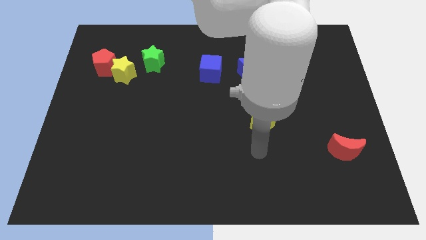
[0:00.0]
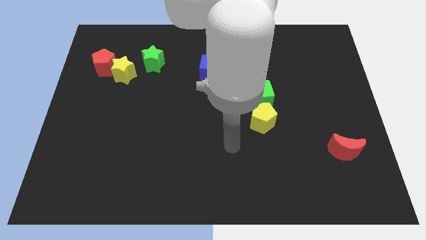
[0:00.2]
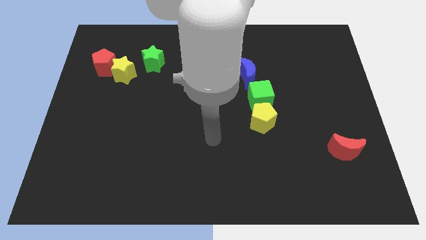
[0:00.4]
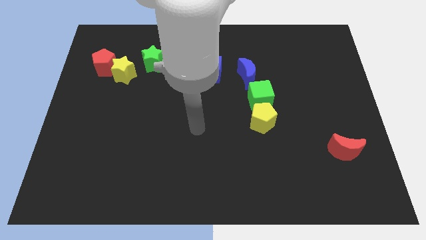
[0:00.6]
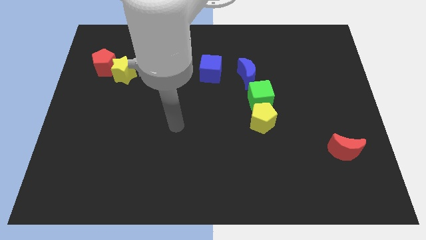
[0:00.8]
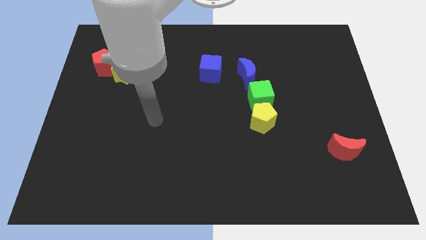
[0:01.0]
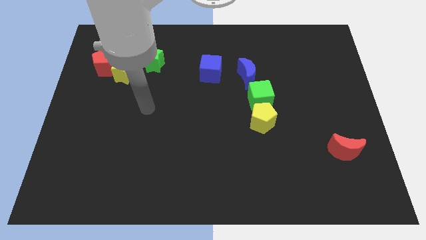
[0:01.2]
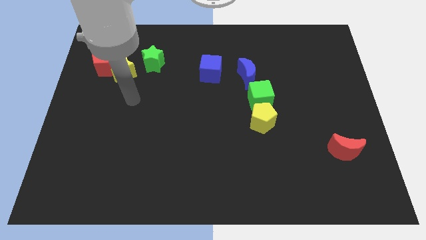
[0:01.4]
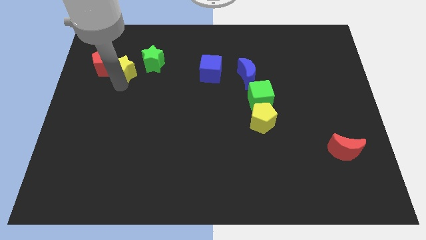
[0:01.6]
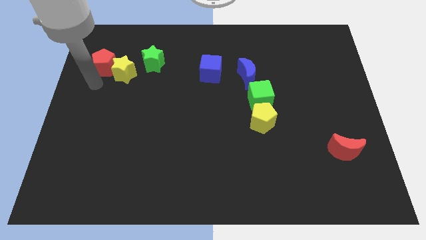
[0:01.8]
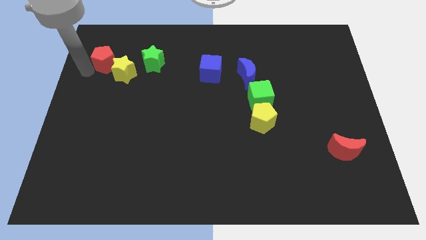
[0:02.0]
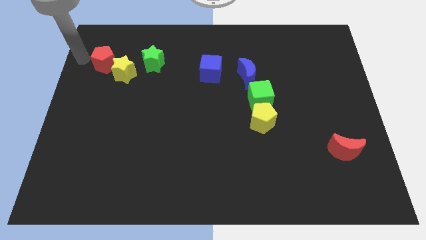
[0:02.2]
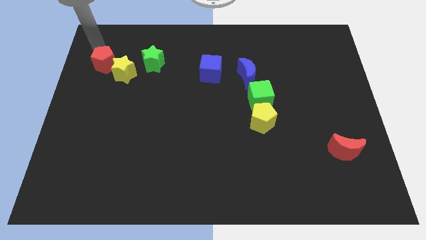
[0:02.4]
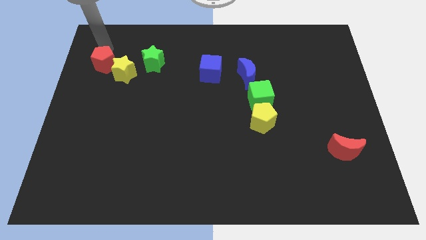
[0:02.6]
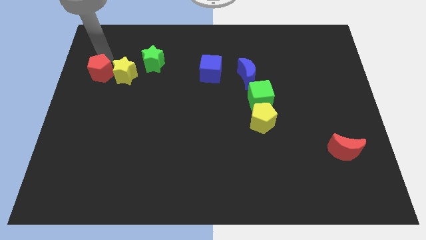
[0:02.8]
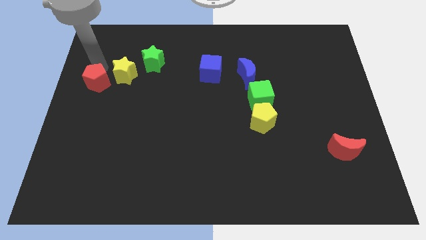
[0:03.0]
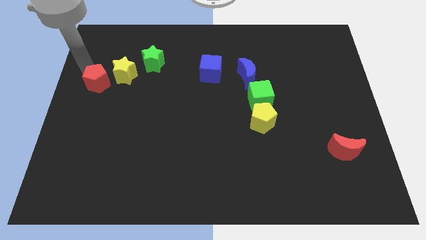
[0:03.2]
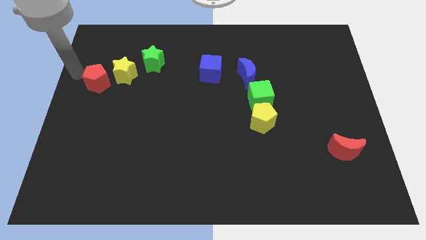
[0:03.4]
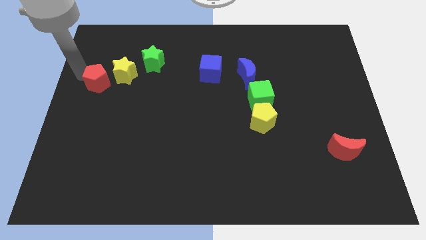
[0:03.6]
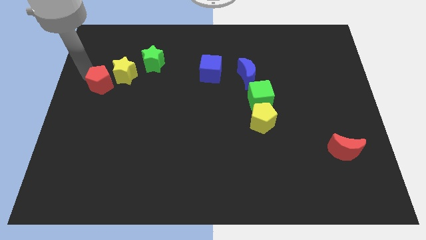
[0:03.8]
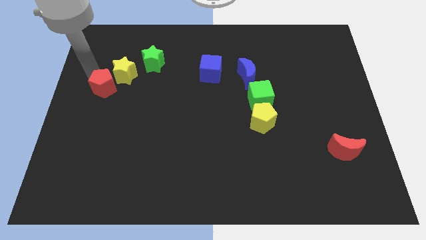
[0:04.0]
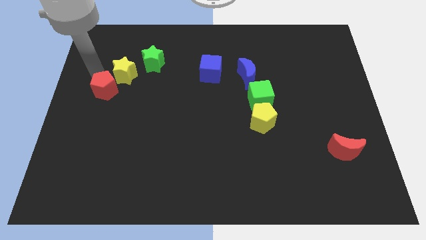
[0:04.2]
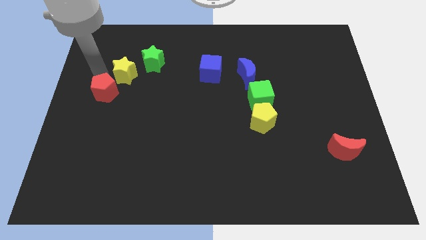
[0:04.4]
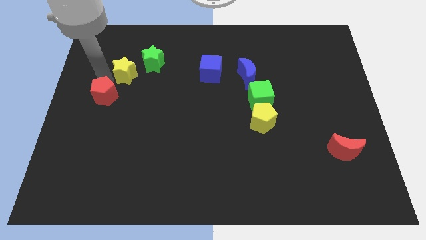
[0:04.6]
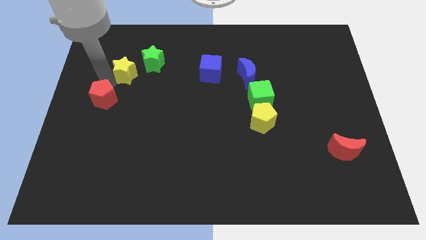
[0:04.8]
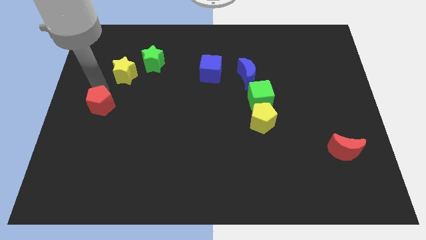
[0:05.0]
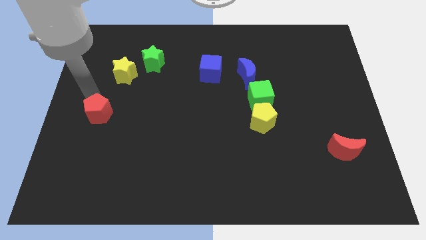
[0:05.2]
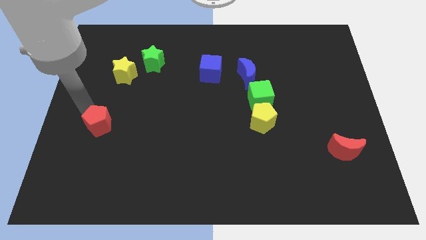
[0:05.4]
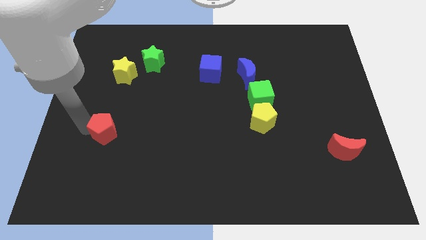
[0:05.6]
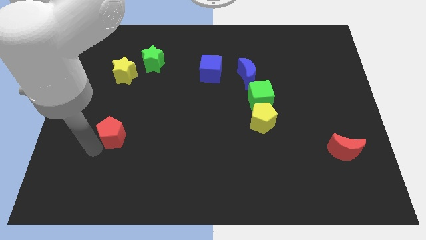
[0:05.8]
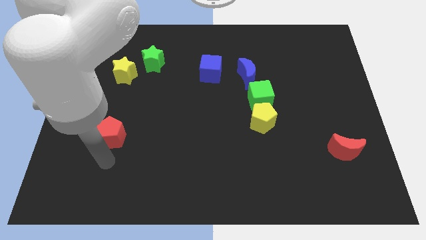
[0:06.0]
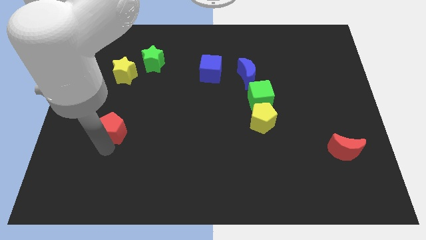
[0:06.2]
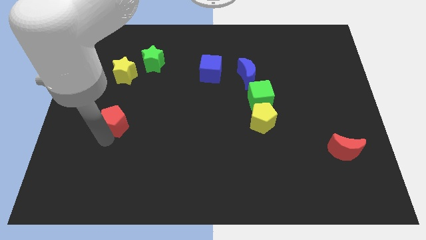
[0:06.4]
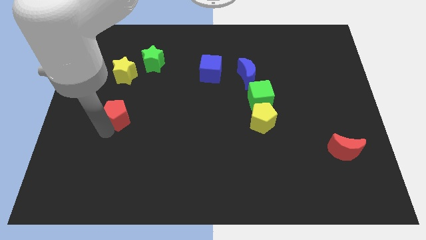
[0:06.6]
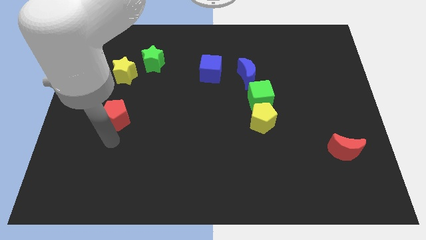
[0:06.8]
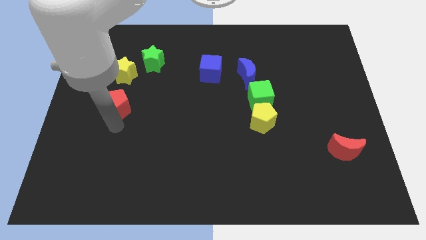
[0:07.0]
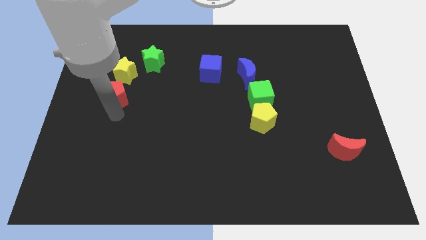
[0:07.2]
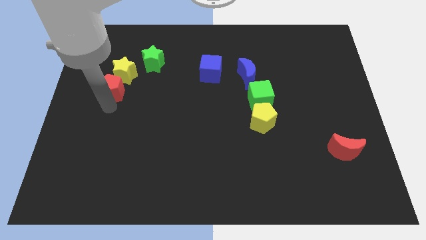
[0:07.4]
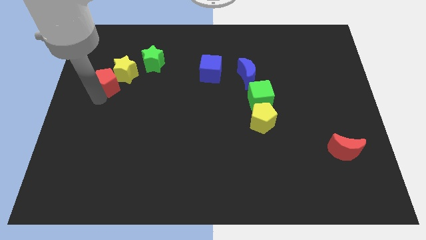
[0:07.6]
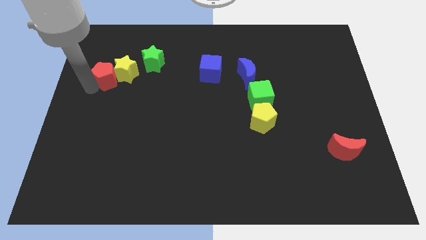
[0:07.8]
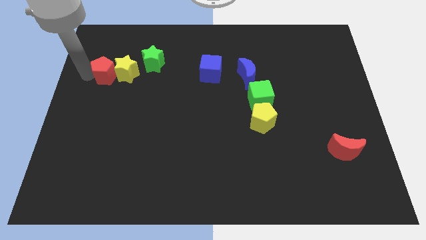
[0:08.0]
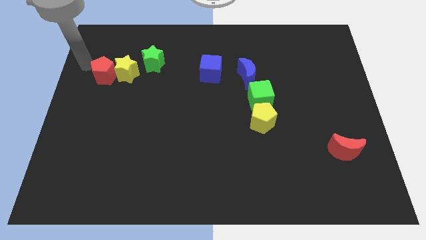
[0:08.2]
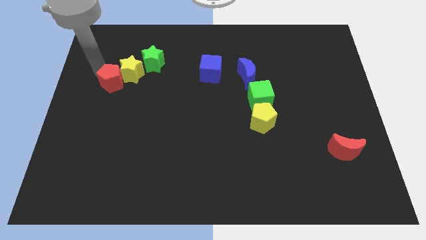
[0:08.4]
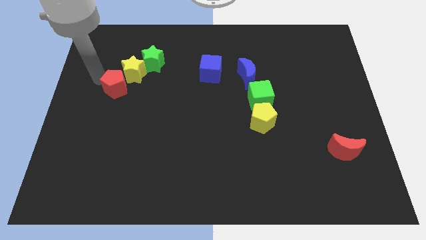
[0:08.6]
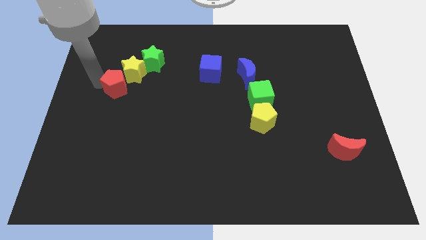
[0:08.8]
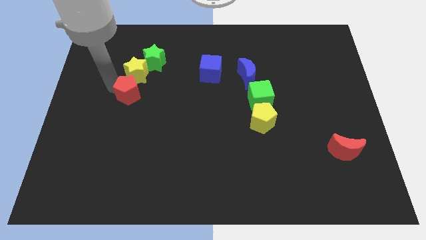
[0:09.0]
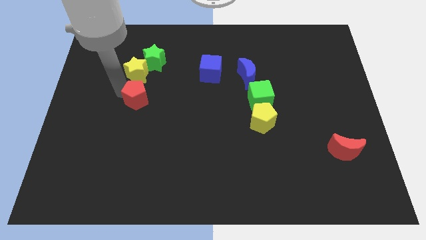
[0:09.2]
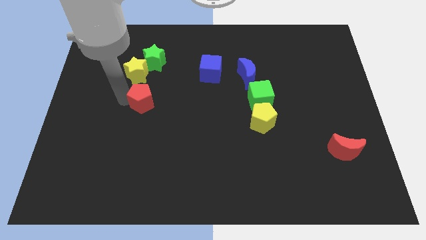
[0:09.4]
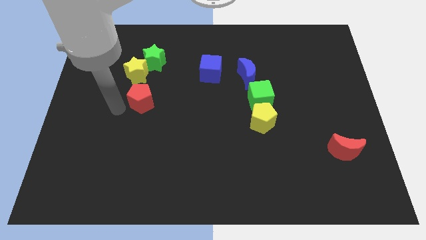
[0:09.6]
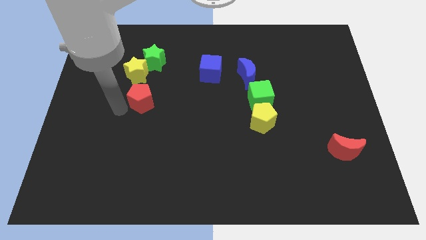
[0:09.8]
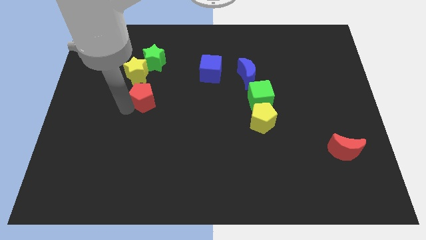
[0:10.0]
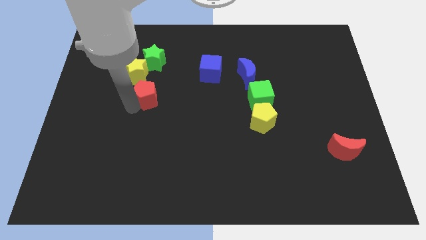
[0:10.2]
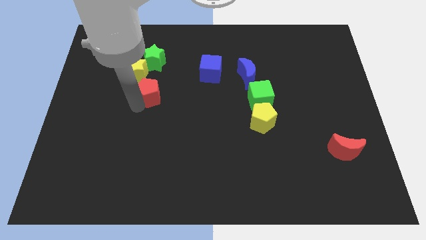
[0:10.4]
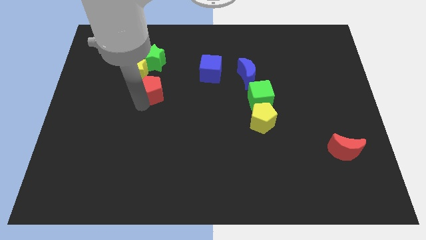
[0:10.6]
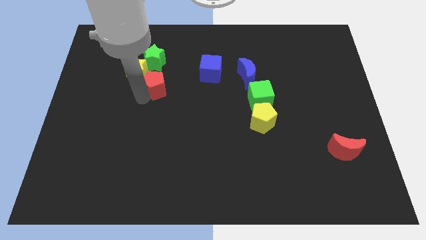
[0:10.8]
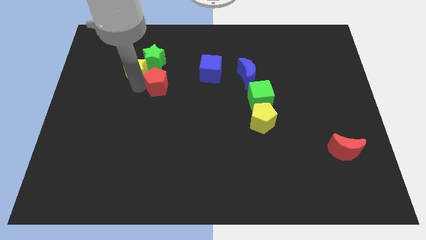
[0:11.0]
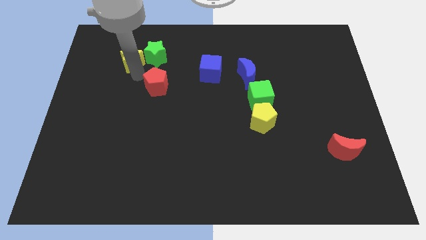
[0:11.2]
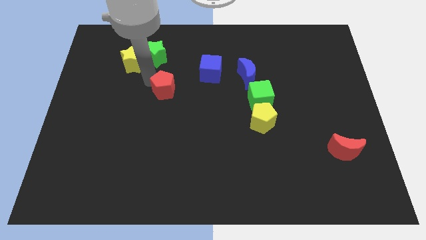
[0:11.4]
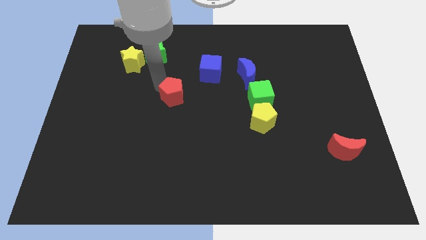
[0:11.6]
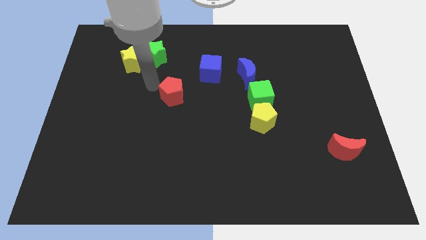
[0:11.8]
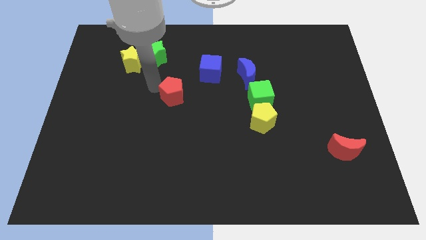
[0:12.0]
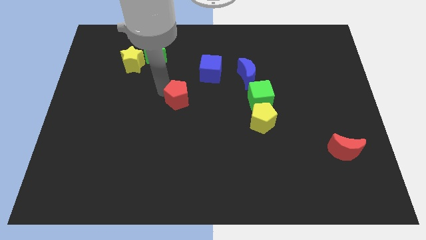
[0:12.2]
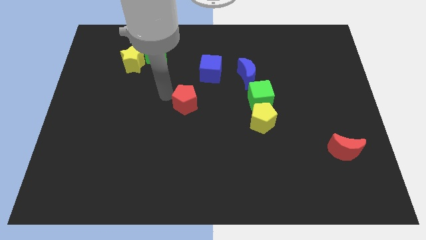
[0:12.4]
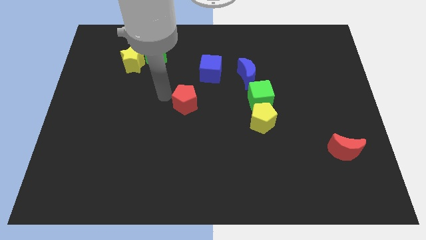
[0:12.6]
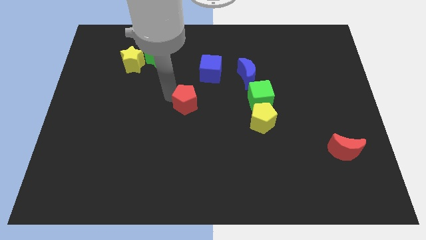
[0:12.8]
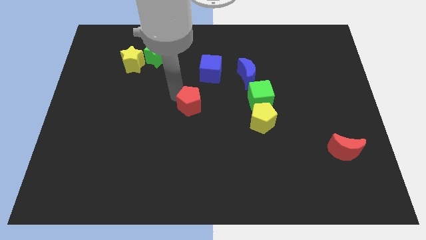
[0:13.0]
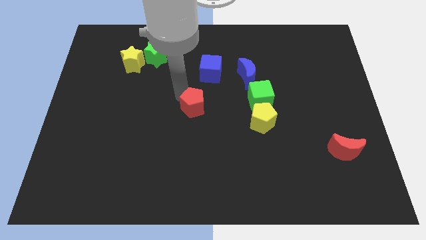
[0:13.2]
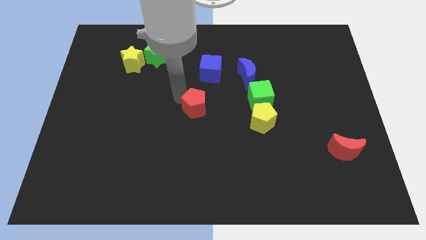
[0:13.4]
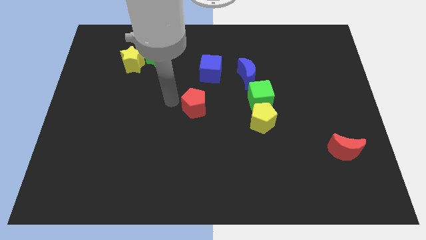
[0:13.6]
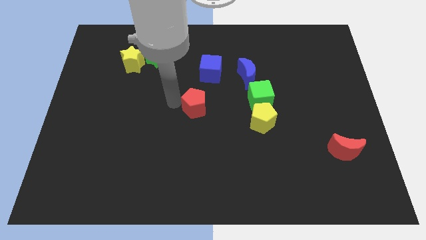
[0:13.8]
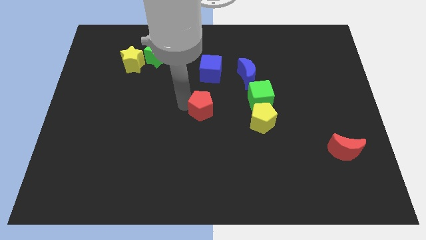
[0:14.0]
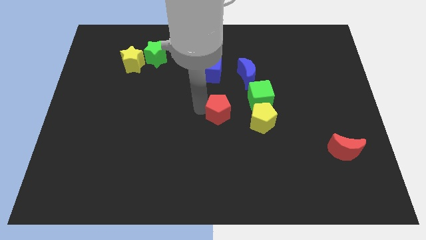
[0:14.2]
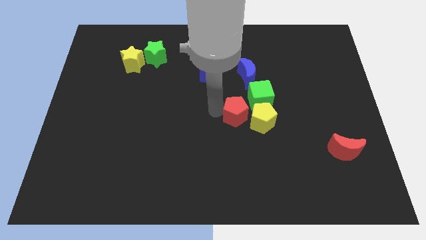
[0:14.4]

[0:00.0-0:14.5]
move the red pentagon towards the yellow pentagon
